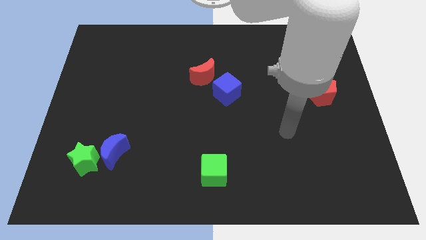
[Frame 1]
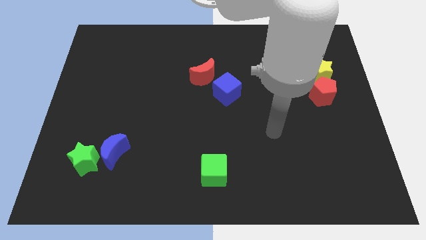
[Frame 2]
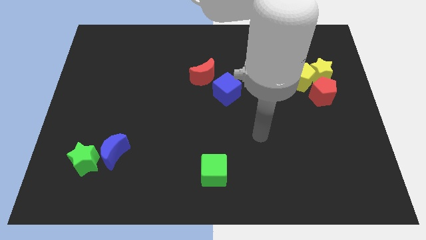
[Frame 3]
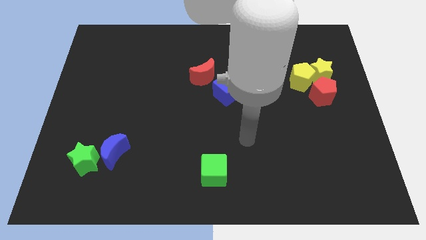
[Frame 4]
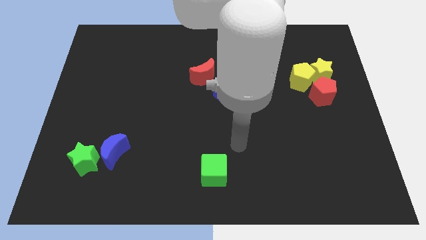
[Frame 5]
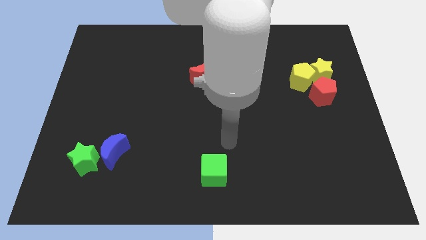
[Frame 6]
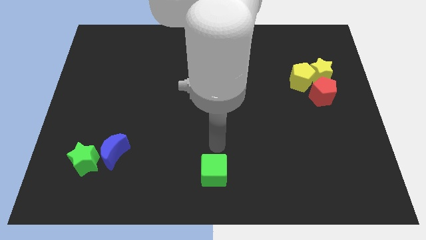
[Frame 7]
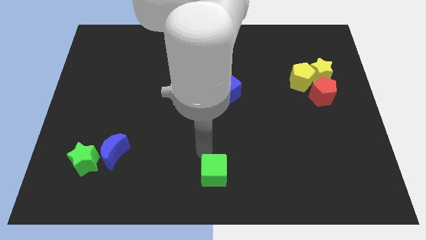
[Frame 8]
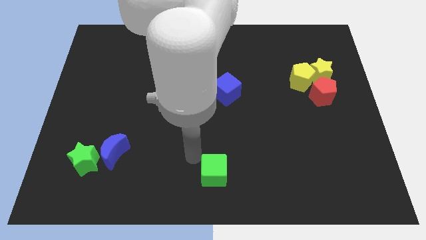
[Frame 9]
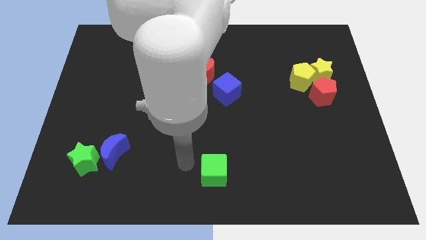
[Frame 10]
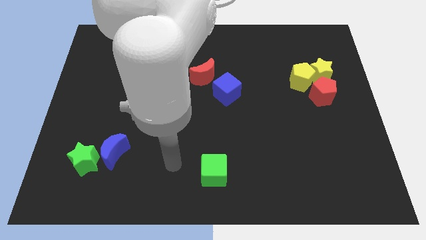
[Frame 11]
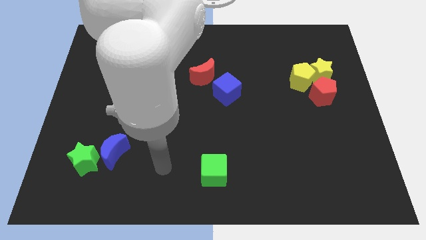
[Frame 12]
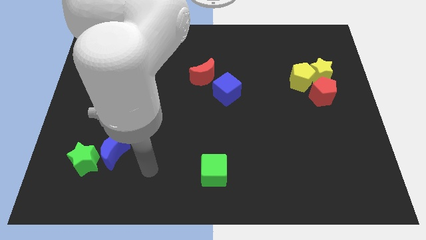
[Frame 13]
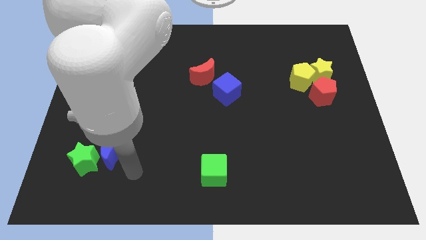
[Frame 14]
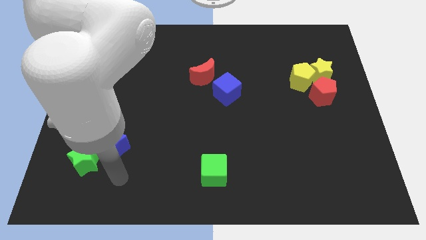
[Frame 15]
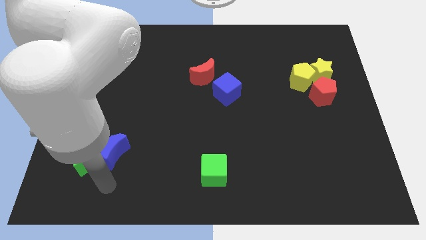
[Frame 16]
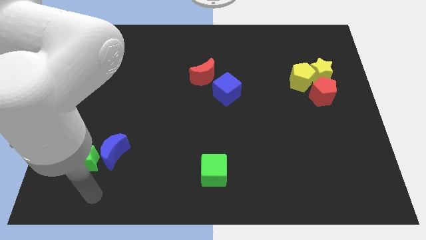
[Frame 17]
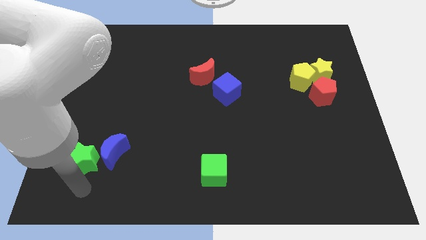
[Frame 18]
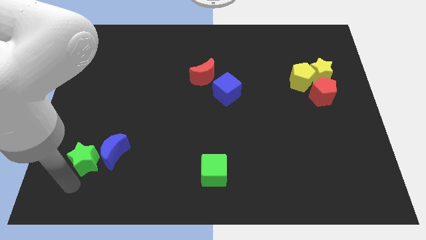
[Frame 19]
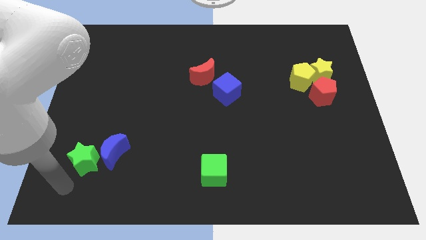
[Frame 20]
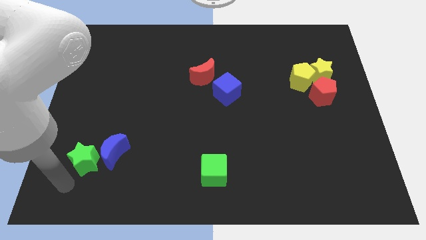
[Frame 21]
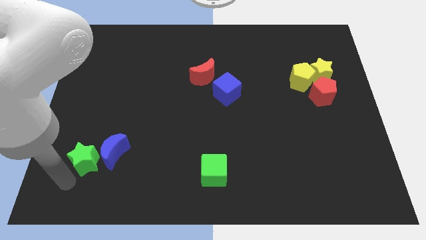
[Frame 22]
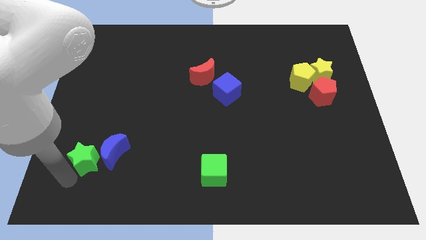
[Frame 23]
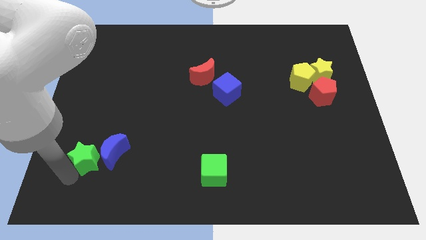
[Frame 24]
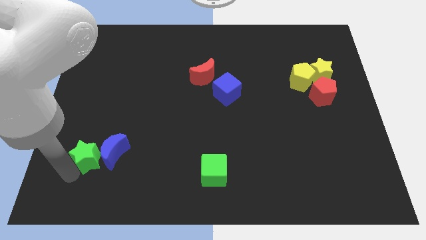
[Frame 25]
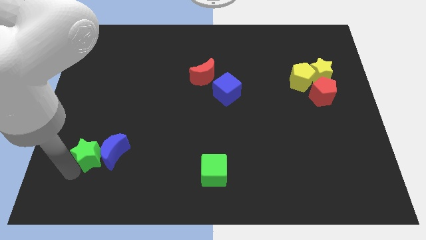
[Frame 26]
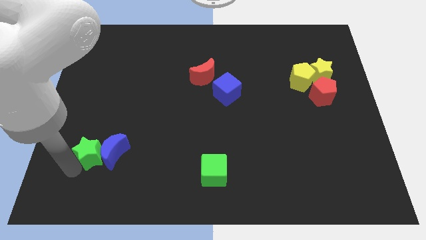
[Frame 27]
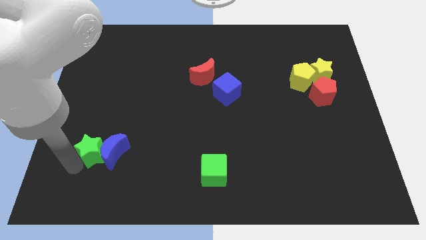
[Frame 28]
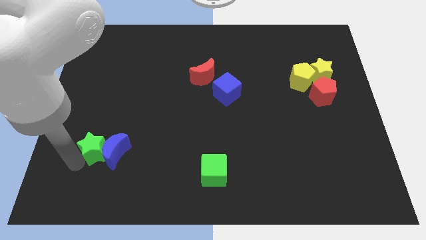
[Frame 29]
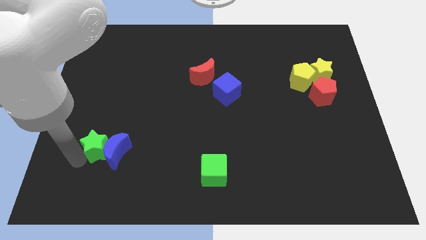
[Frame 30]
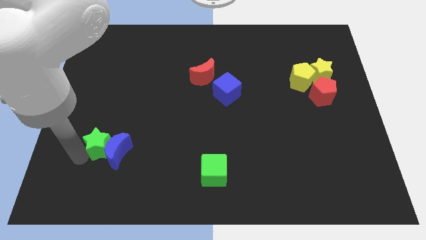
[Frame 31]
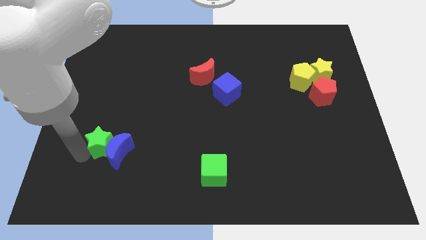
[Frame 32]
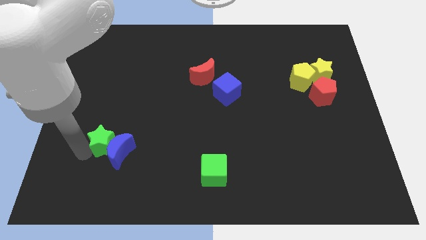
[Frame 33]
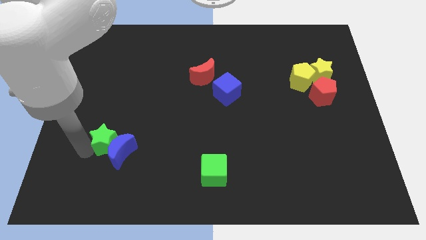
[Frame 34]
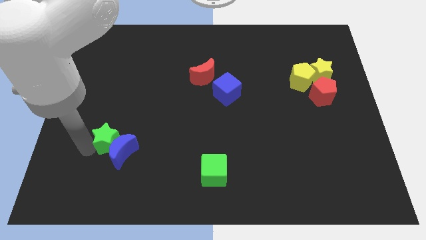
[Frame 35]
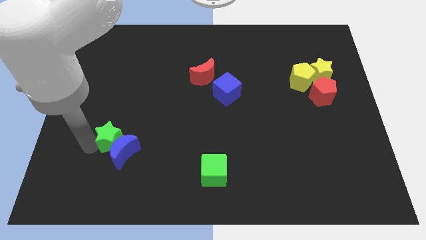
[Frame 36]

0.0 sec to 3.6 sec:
slightly push the green star diagonally up and right

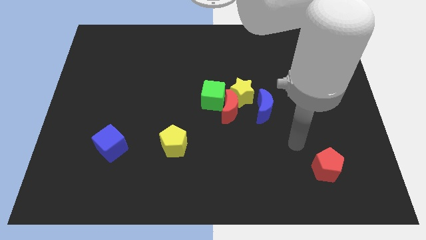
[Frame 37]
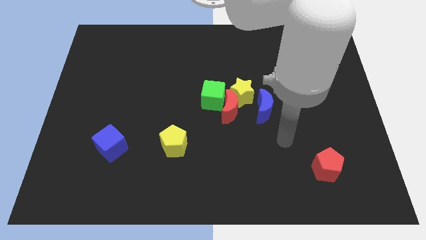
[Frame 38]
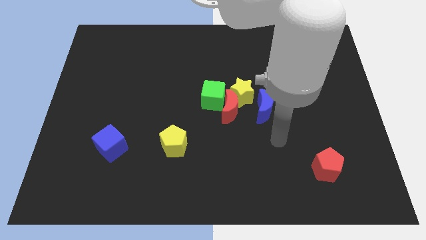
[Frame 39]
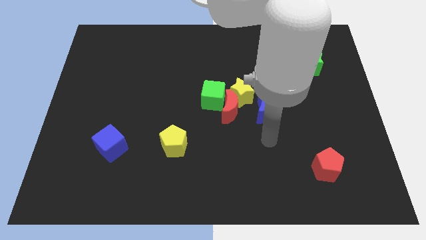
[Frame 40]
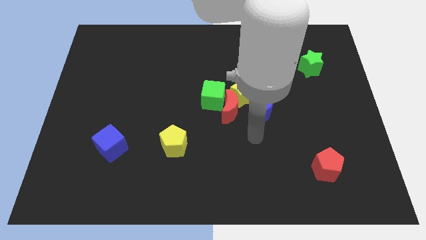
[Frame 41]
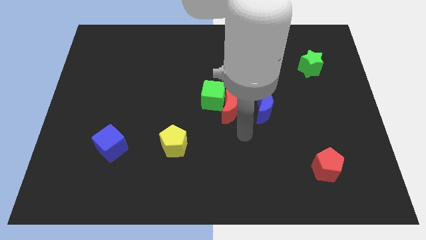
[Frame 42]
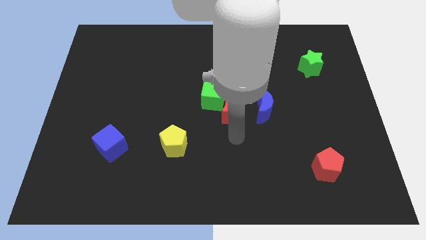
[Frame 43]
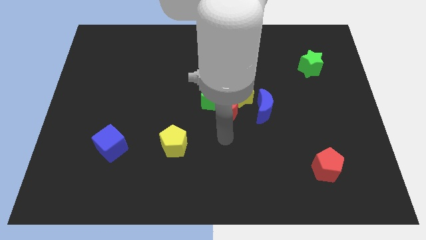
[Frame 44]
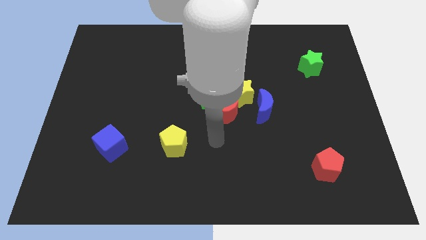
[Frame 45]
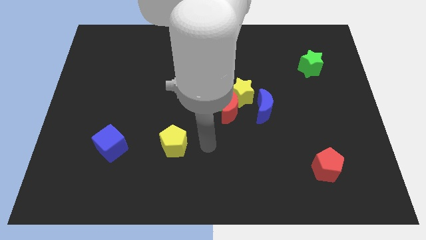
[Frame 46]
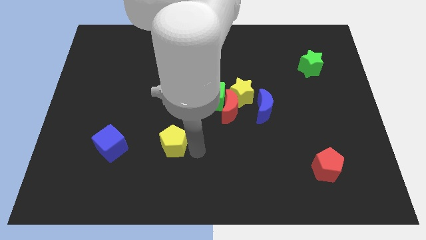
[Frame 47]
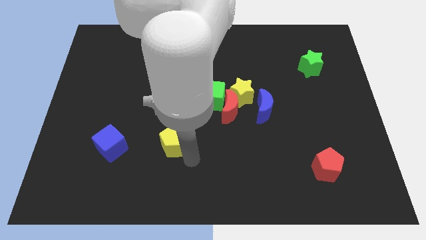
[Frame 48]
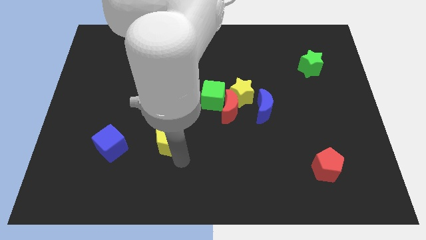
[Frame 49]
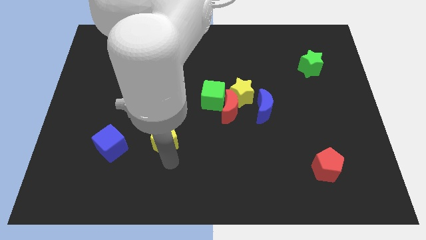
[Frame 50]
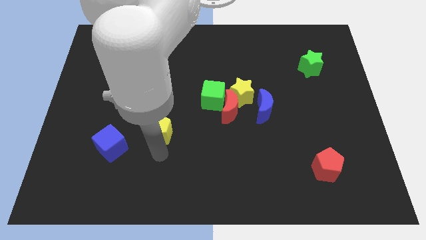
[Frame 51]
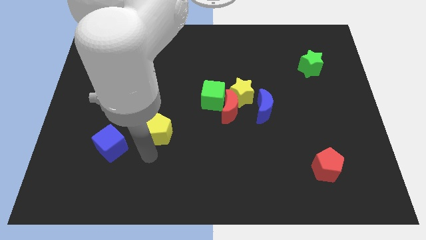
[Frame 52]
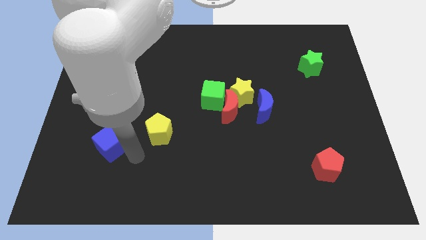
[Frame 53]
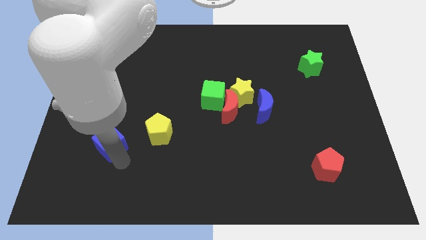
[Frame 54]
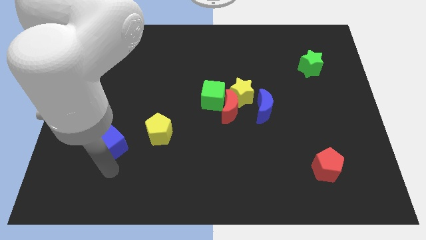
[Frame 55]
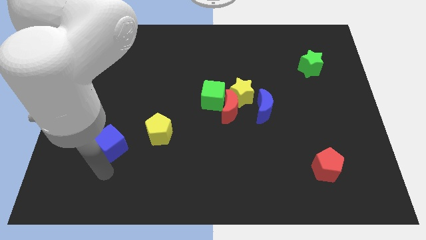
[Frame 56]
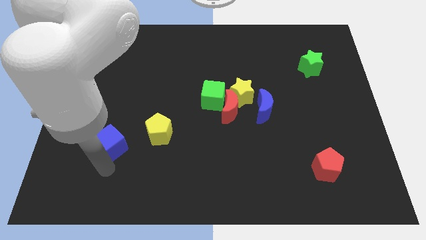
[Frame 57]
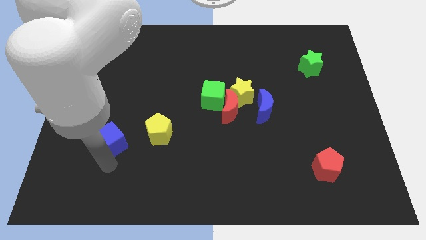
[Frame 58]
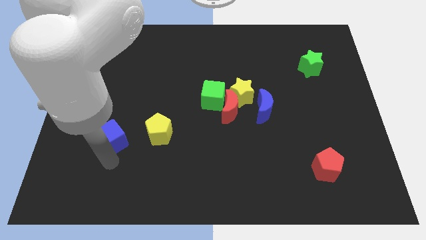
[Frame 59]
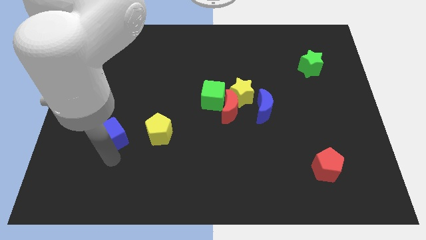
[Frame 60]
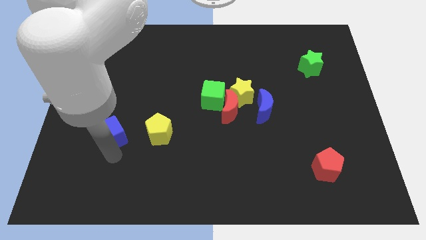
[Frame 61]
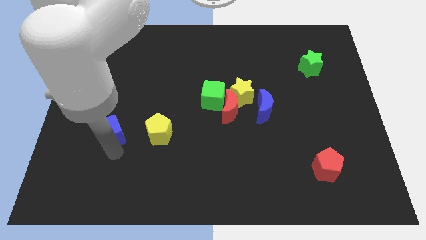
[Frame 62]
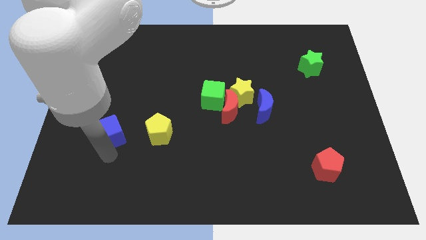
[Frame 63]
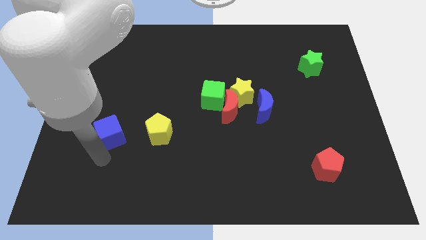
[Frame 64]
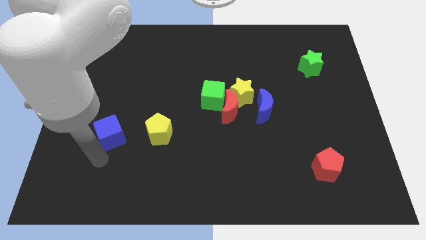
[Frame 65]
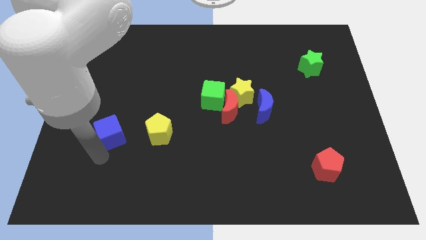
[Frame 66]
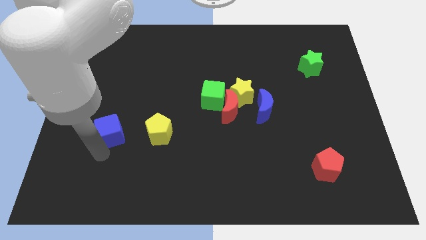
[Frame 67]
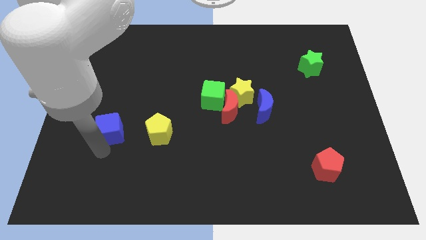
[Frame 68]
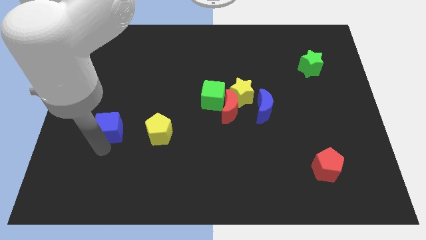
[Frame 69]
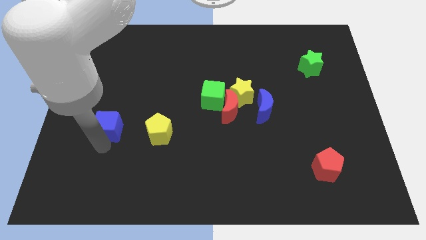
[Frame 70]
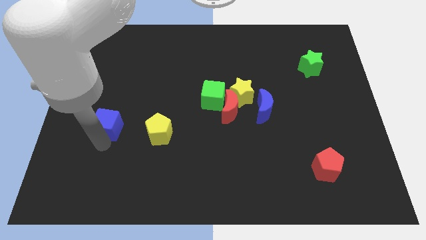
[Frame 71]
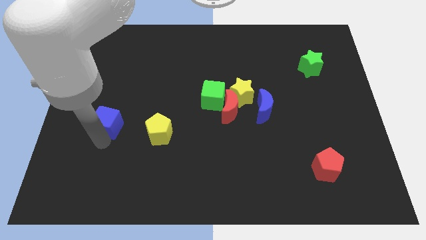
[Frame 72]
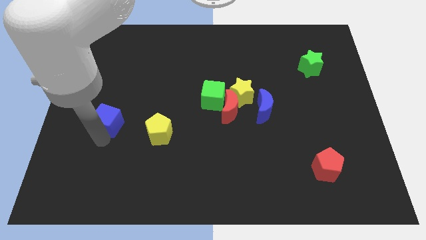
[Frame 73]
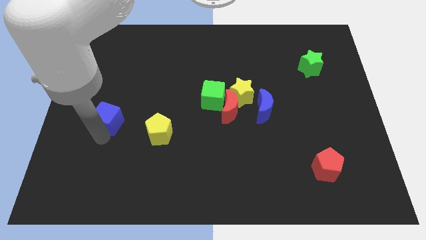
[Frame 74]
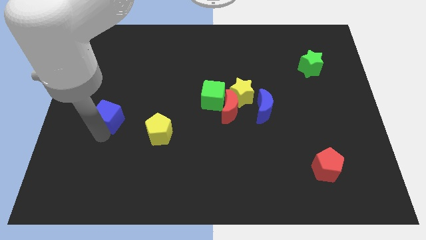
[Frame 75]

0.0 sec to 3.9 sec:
slide the blue cube a bit upwards

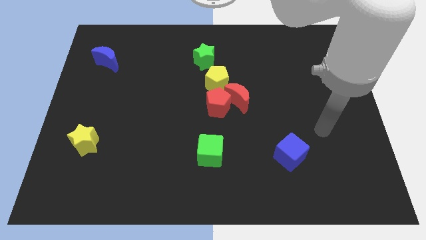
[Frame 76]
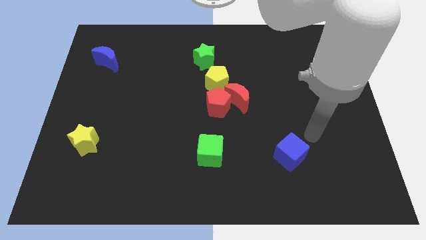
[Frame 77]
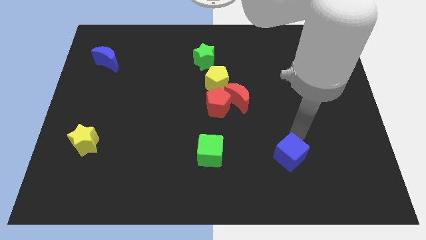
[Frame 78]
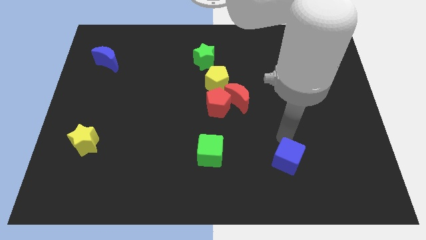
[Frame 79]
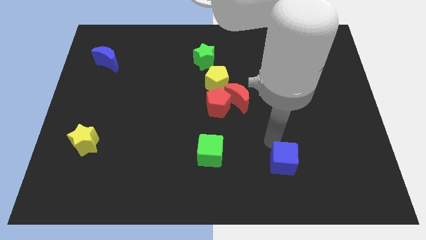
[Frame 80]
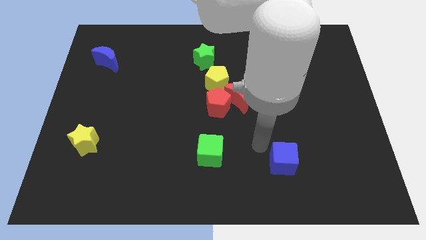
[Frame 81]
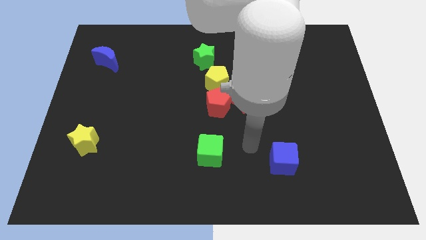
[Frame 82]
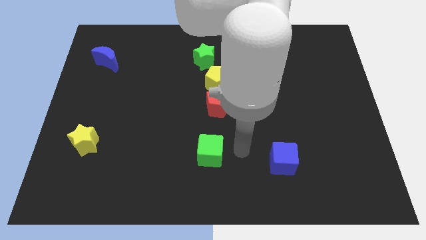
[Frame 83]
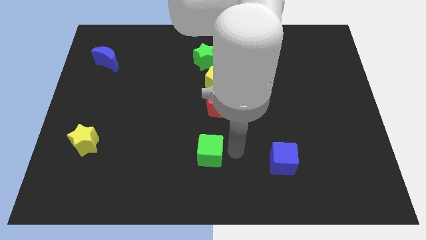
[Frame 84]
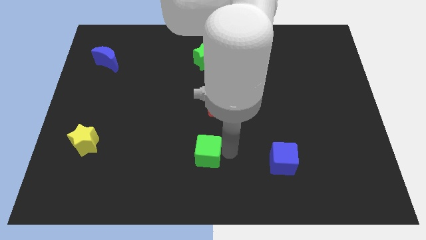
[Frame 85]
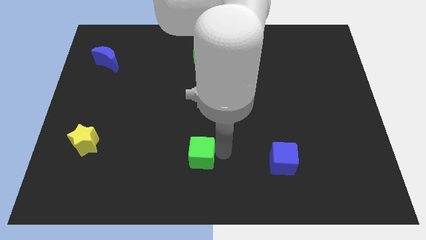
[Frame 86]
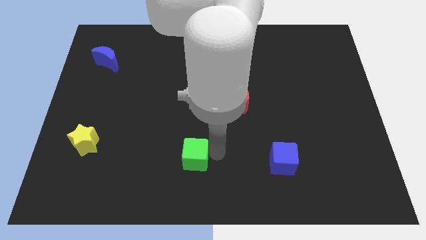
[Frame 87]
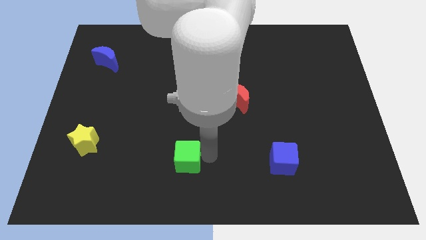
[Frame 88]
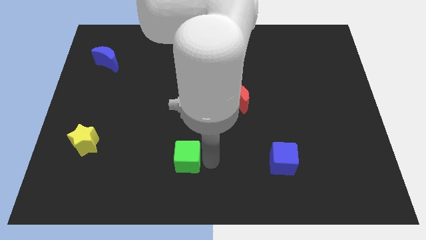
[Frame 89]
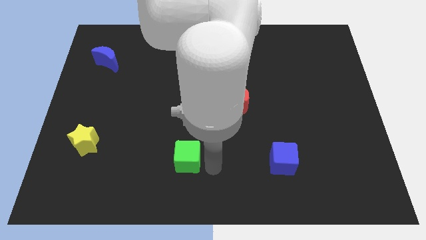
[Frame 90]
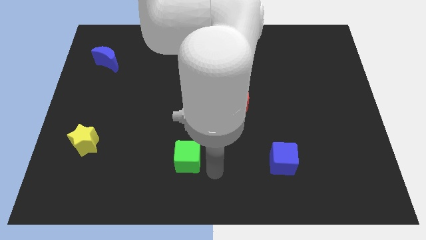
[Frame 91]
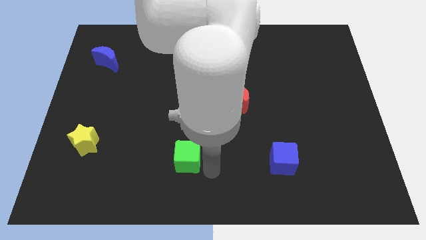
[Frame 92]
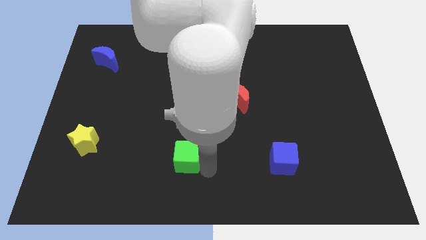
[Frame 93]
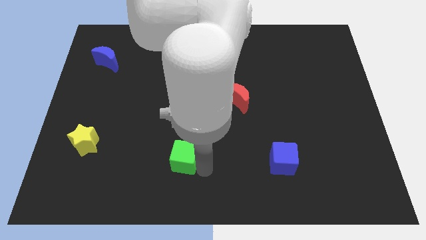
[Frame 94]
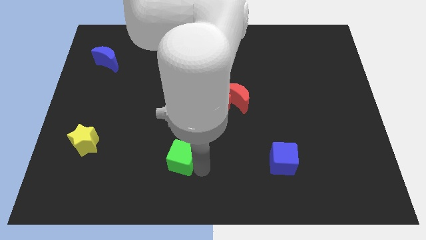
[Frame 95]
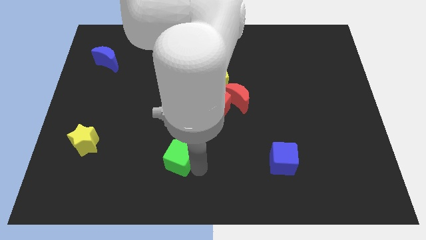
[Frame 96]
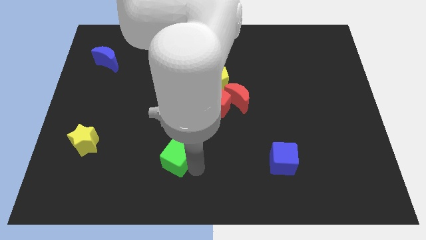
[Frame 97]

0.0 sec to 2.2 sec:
slightly move the green cube left
